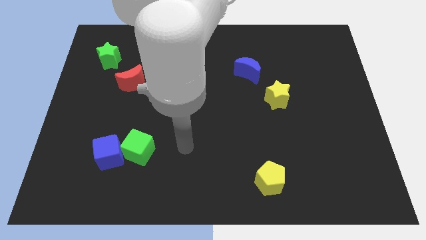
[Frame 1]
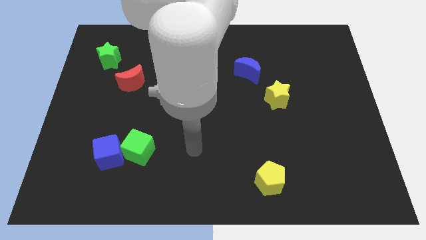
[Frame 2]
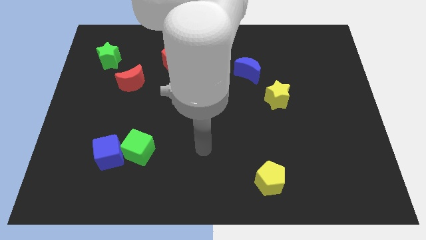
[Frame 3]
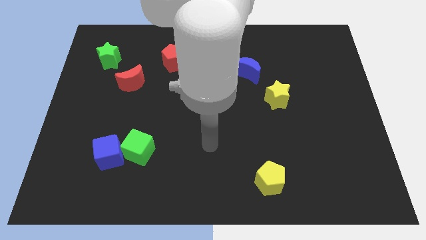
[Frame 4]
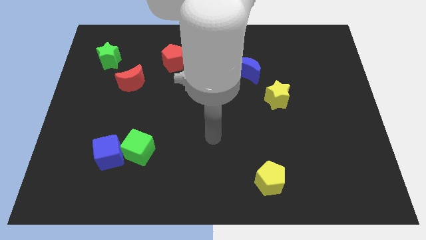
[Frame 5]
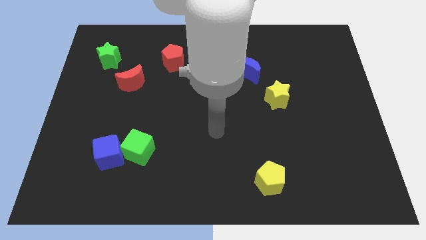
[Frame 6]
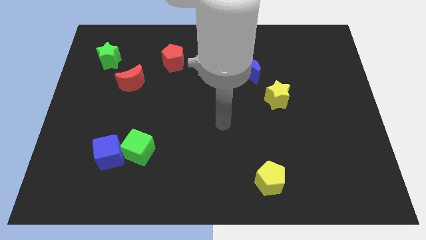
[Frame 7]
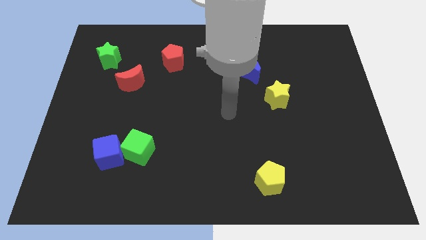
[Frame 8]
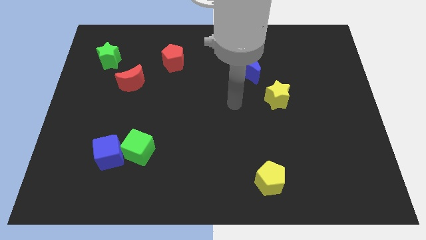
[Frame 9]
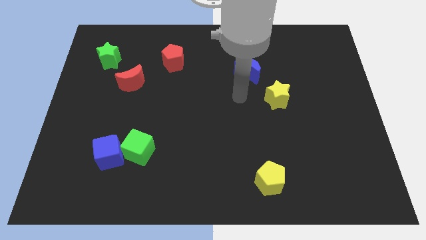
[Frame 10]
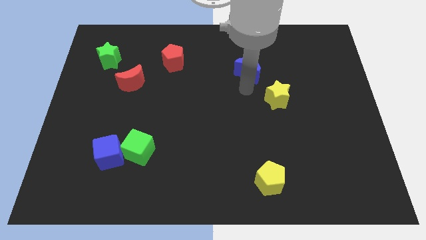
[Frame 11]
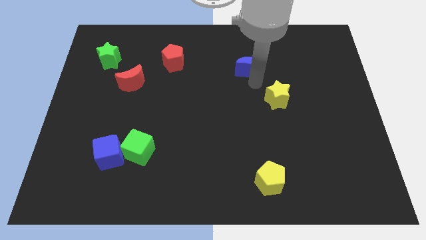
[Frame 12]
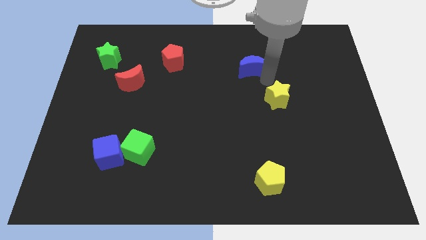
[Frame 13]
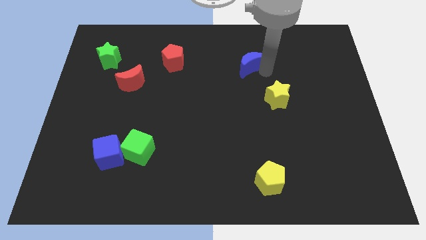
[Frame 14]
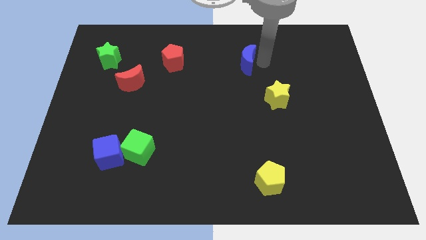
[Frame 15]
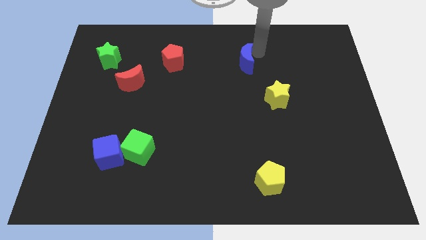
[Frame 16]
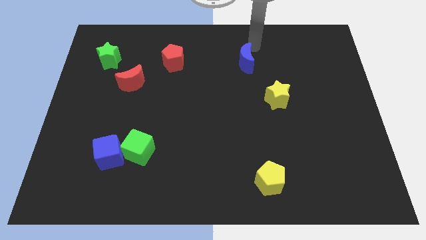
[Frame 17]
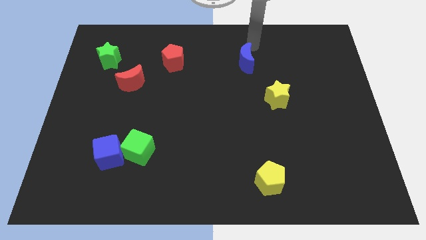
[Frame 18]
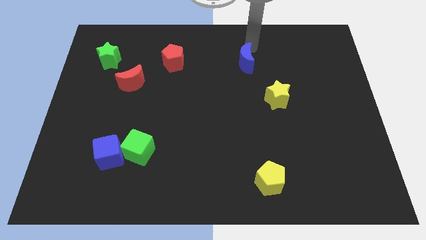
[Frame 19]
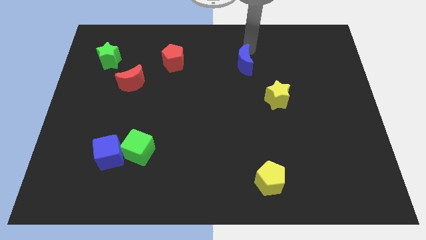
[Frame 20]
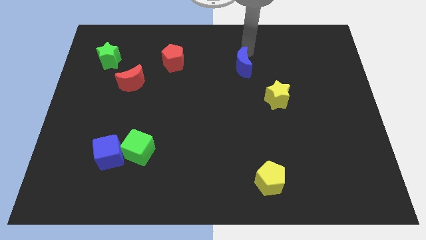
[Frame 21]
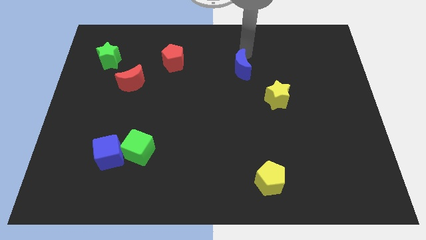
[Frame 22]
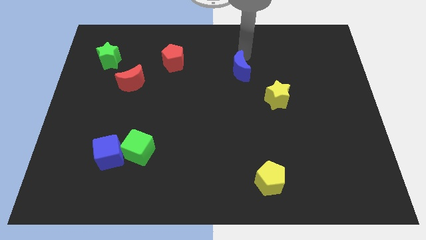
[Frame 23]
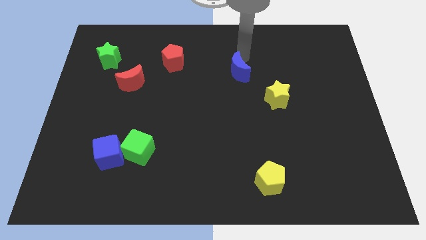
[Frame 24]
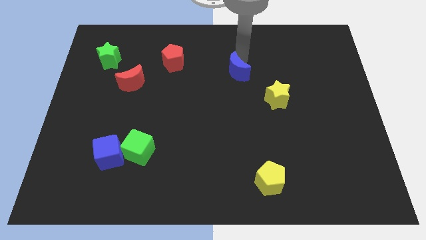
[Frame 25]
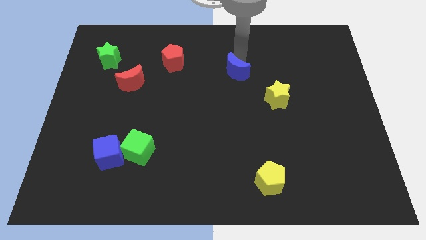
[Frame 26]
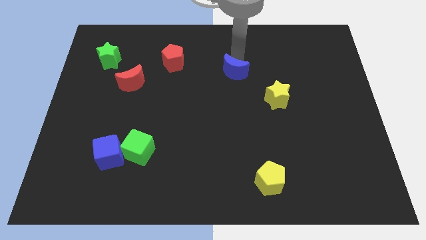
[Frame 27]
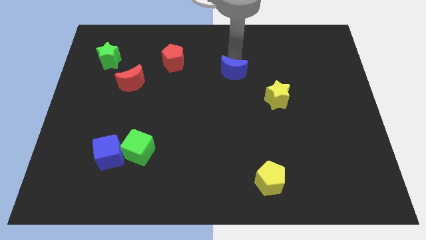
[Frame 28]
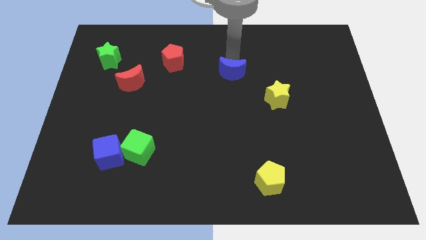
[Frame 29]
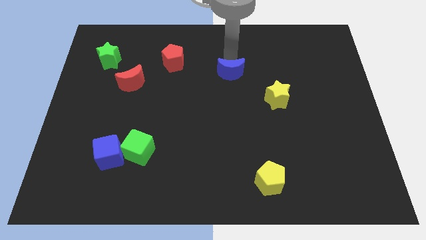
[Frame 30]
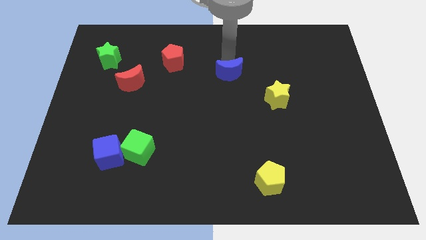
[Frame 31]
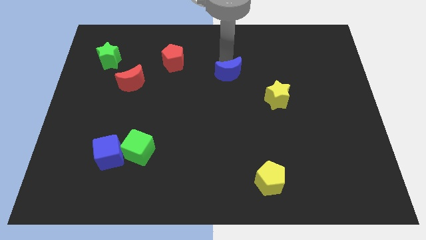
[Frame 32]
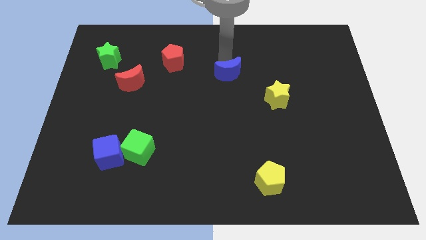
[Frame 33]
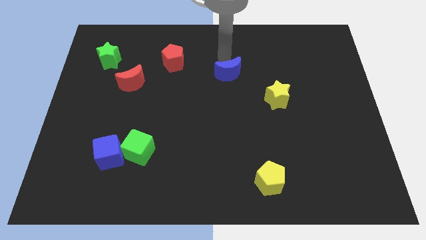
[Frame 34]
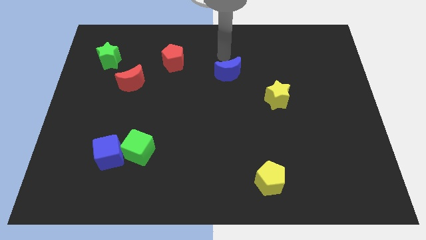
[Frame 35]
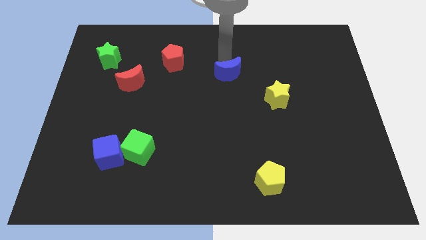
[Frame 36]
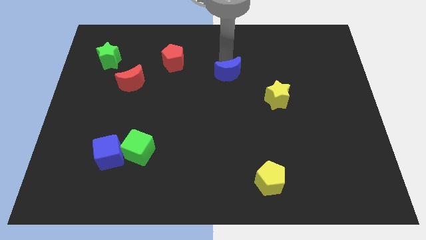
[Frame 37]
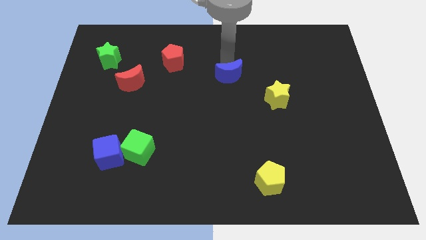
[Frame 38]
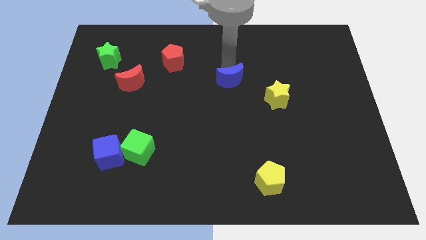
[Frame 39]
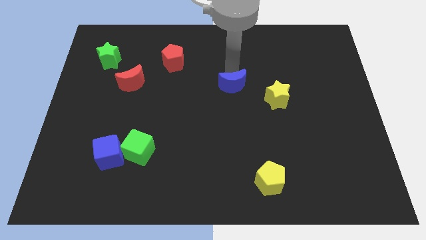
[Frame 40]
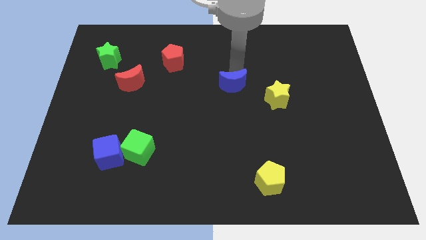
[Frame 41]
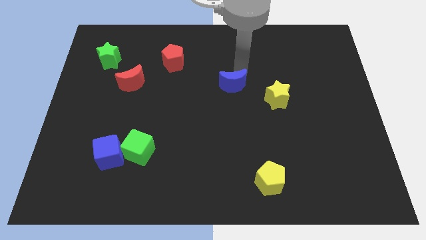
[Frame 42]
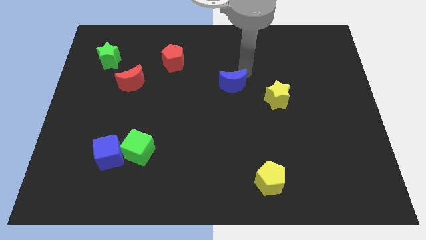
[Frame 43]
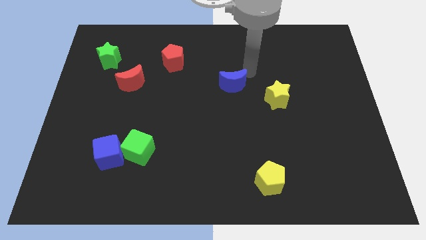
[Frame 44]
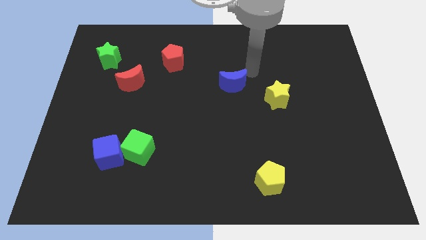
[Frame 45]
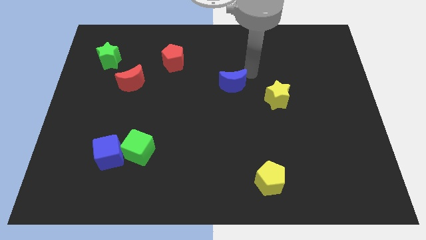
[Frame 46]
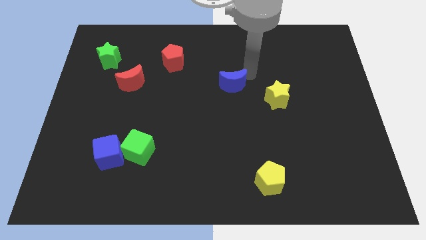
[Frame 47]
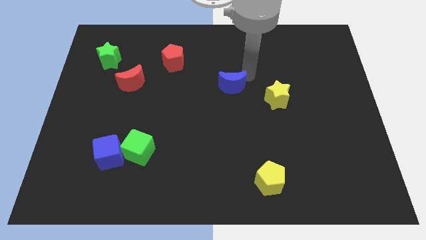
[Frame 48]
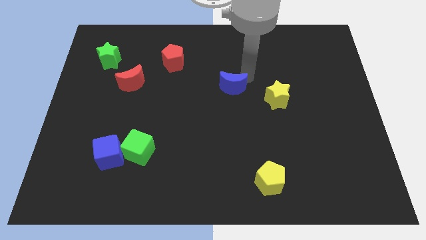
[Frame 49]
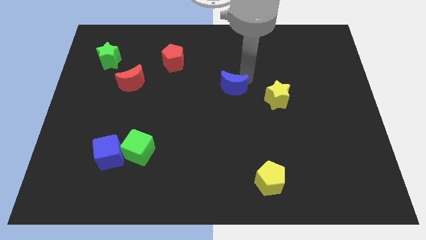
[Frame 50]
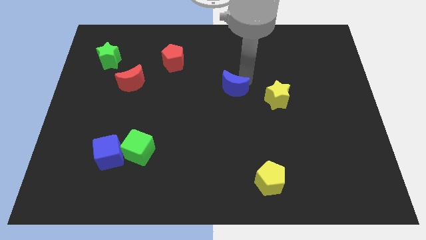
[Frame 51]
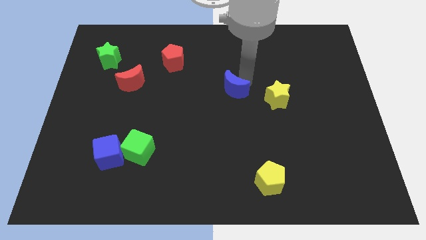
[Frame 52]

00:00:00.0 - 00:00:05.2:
move the blue moon somewhat downwards and to the left

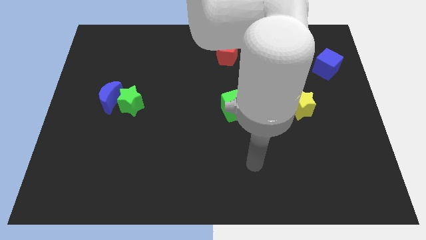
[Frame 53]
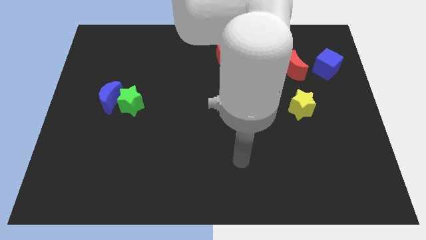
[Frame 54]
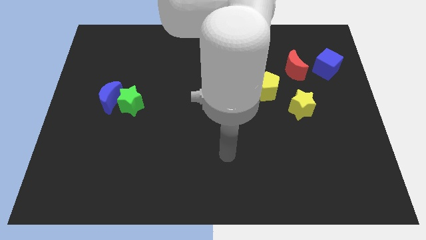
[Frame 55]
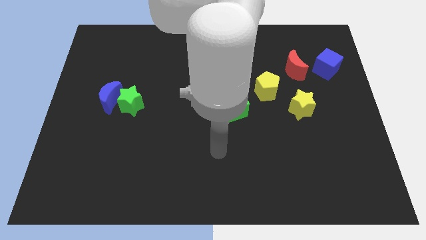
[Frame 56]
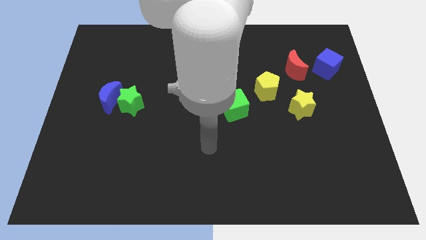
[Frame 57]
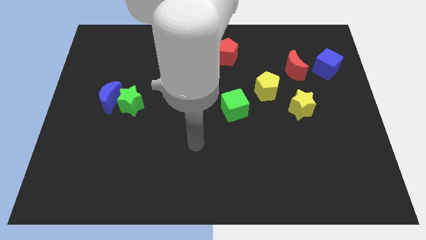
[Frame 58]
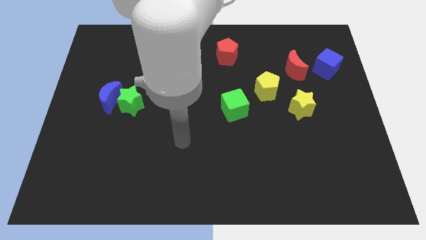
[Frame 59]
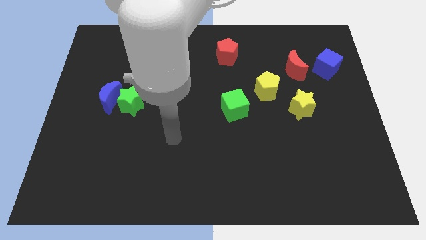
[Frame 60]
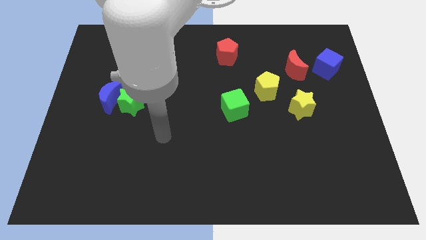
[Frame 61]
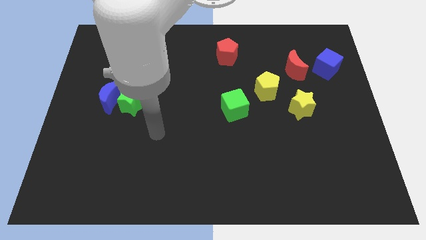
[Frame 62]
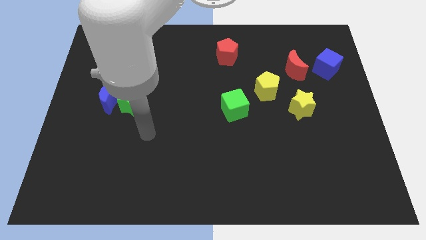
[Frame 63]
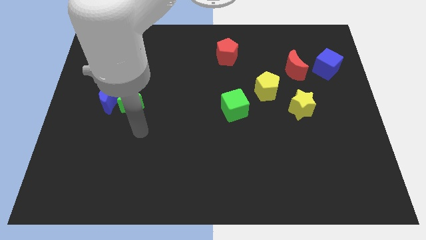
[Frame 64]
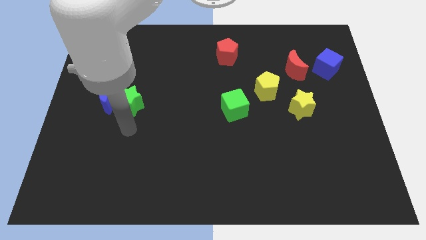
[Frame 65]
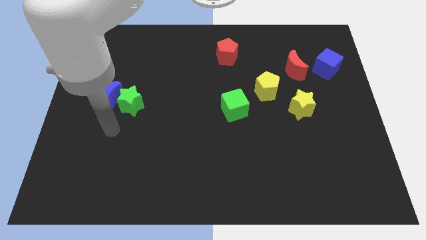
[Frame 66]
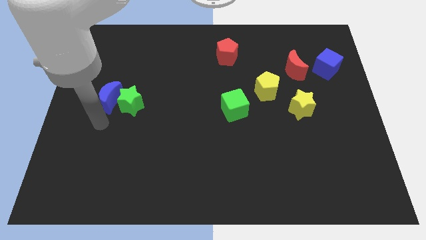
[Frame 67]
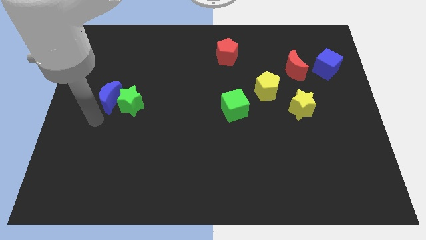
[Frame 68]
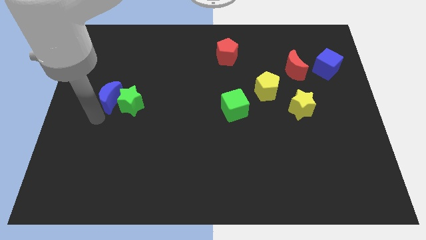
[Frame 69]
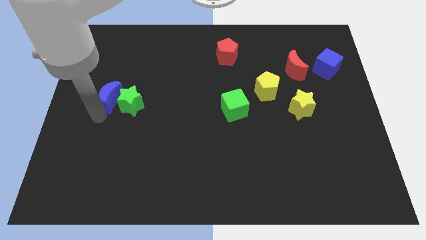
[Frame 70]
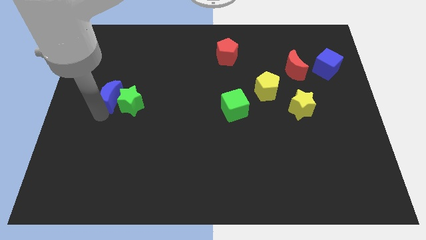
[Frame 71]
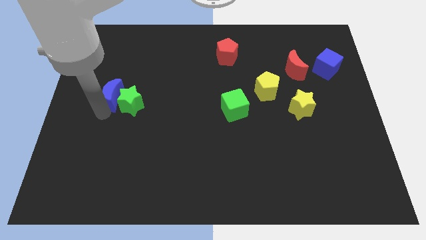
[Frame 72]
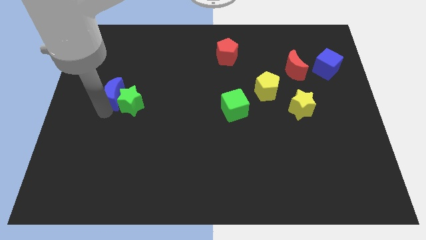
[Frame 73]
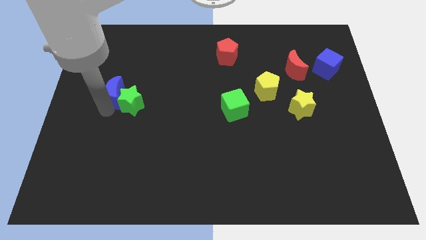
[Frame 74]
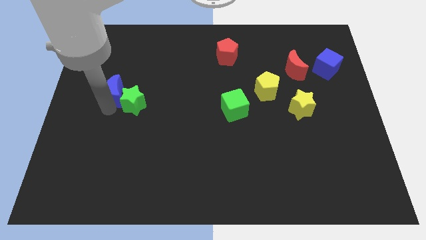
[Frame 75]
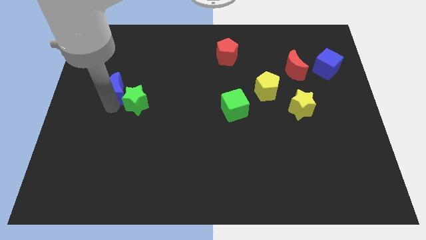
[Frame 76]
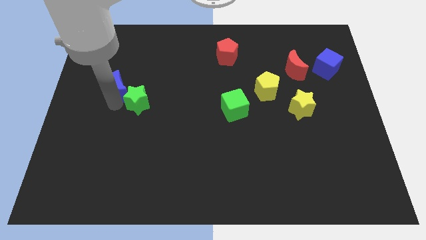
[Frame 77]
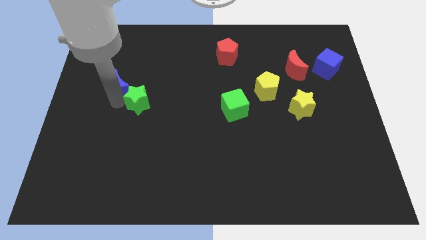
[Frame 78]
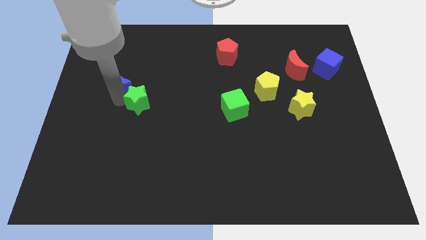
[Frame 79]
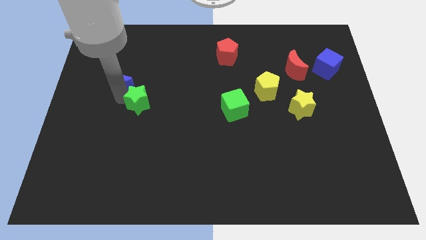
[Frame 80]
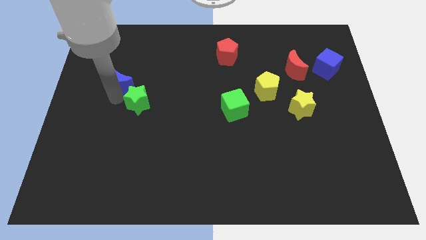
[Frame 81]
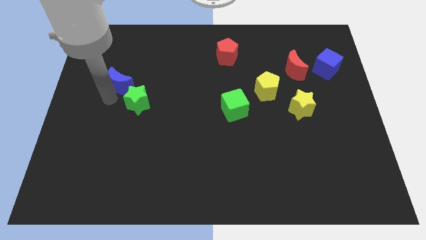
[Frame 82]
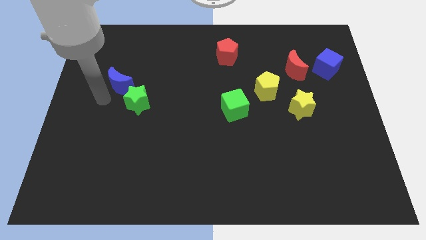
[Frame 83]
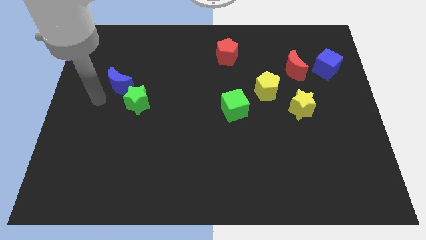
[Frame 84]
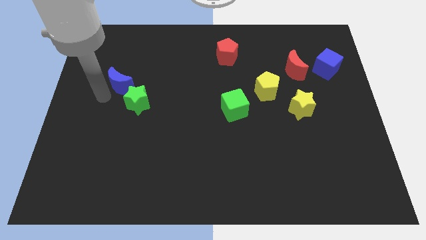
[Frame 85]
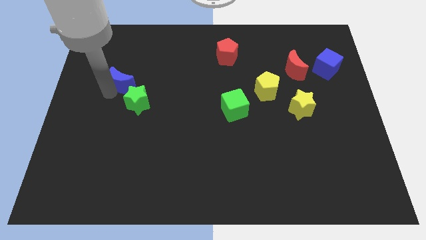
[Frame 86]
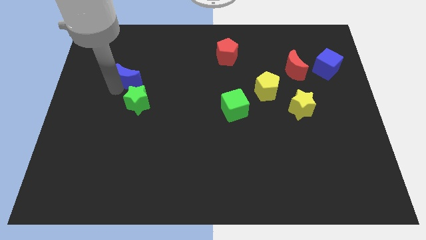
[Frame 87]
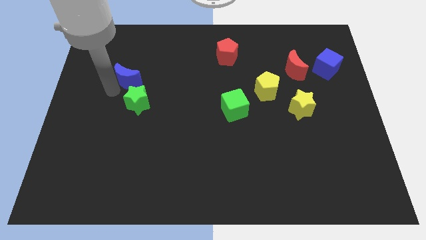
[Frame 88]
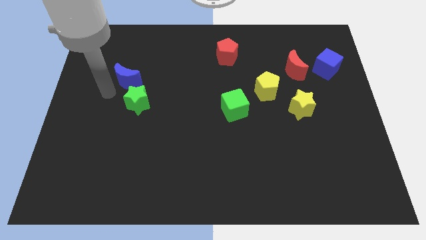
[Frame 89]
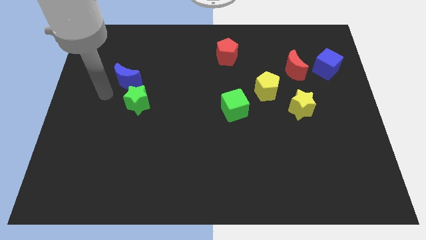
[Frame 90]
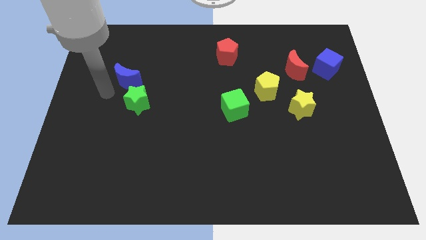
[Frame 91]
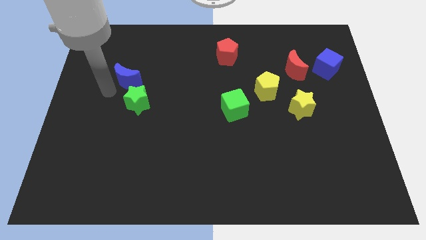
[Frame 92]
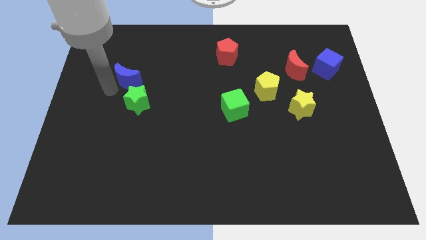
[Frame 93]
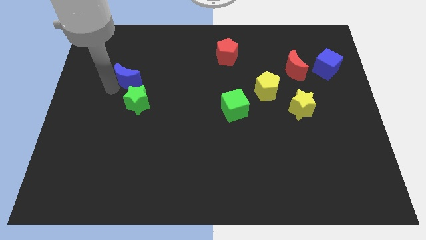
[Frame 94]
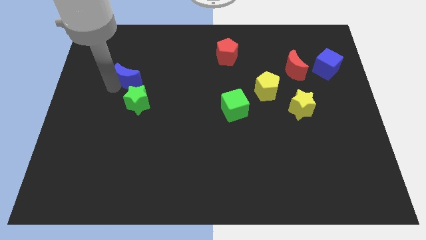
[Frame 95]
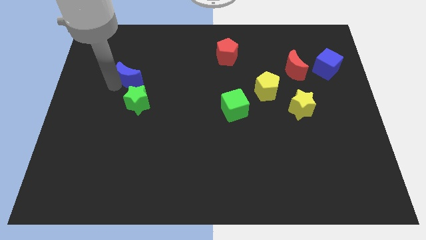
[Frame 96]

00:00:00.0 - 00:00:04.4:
slightly move the blue moon diagonally up and to the right
